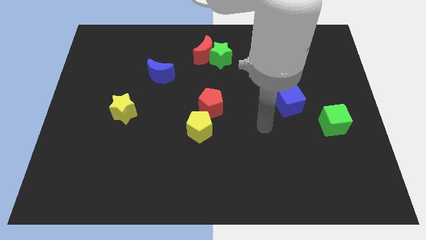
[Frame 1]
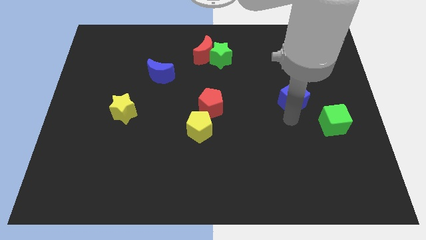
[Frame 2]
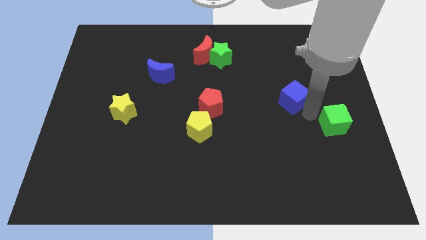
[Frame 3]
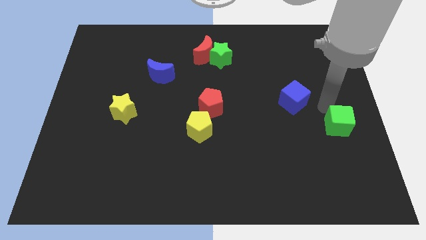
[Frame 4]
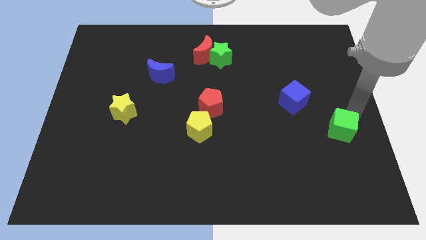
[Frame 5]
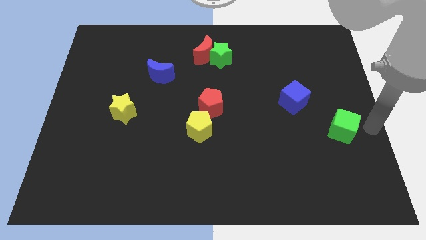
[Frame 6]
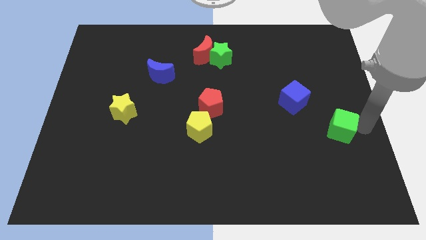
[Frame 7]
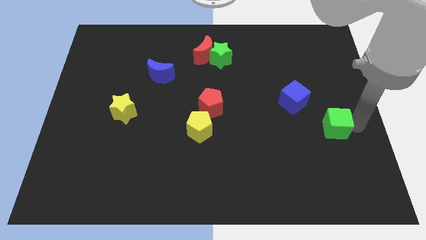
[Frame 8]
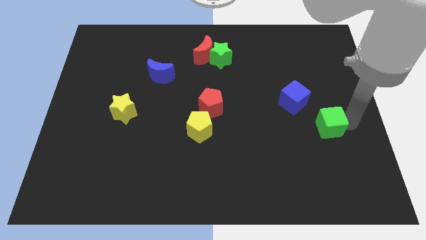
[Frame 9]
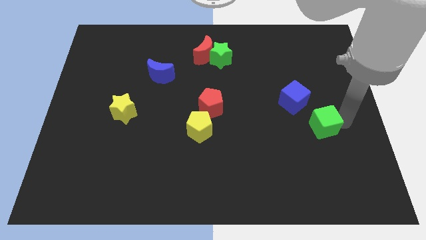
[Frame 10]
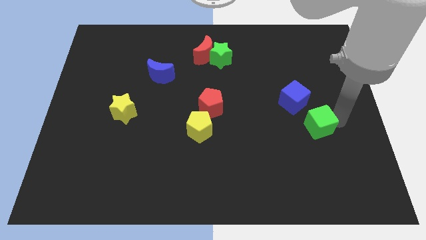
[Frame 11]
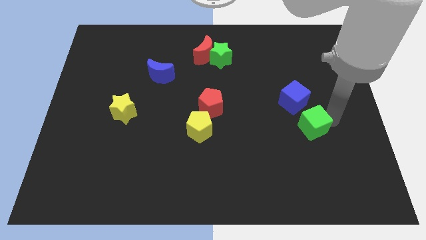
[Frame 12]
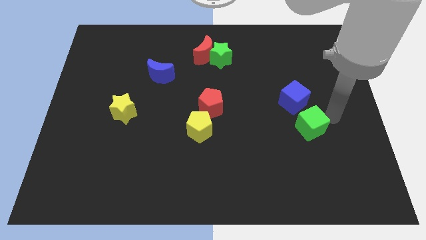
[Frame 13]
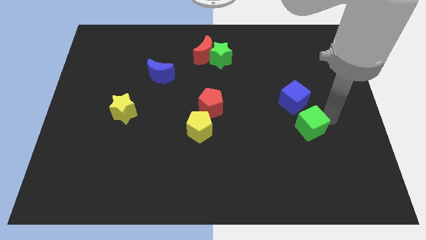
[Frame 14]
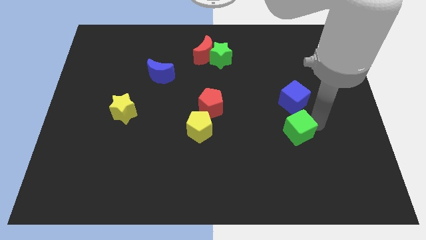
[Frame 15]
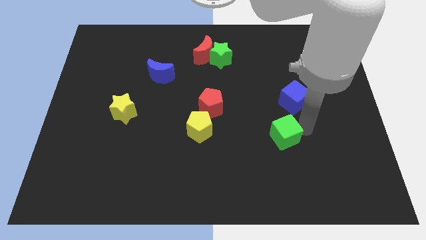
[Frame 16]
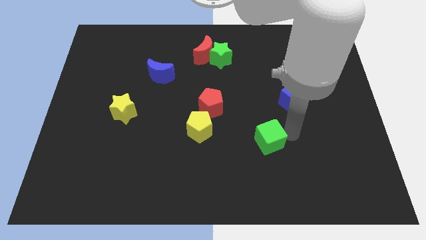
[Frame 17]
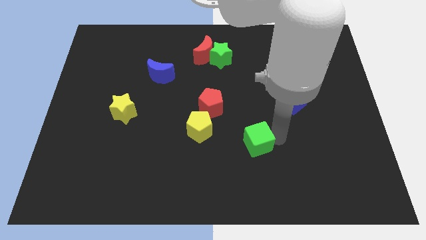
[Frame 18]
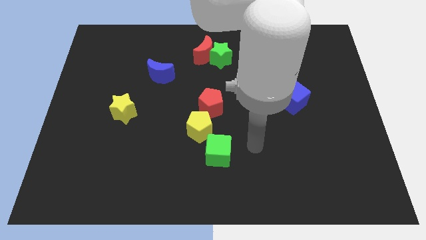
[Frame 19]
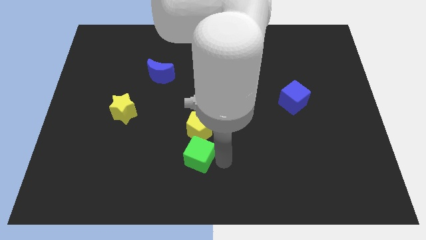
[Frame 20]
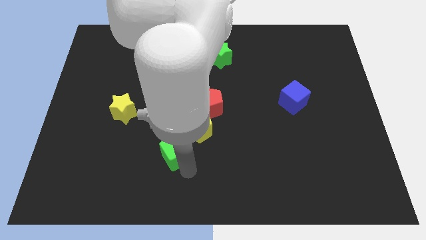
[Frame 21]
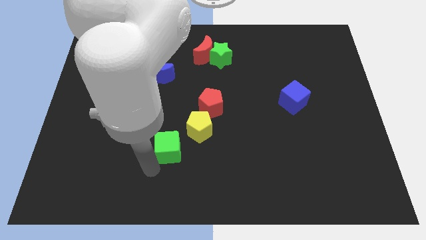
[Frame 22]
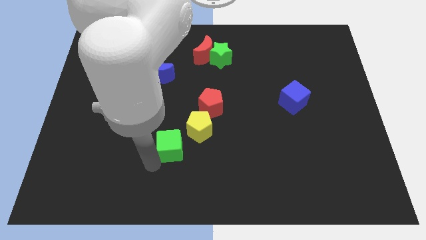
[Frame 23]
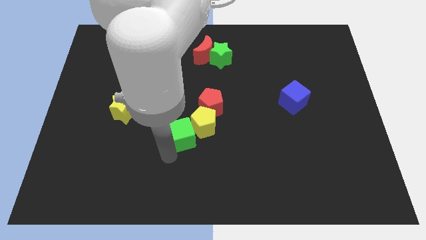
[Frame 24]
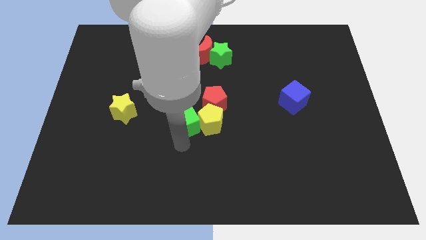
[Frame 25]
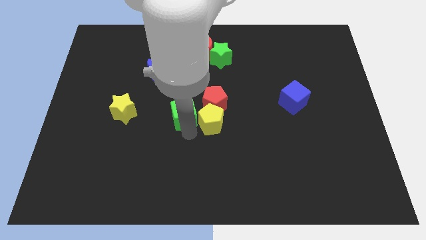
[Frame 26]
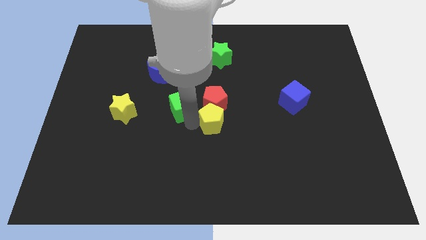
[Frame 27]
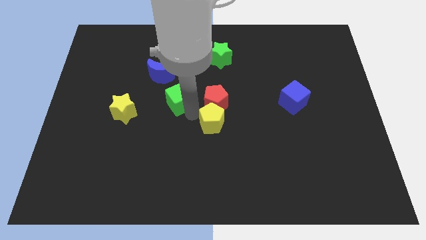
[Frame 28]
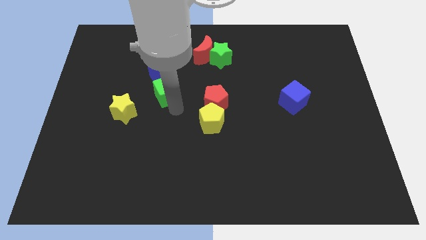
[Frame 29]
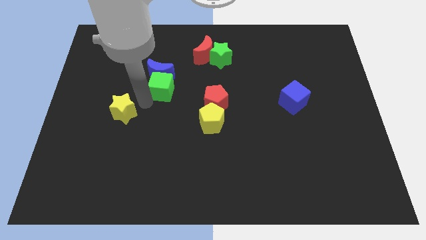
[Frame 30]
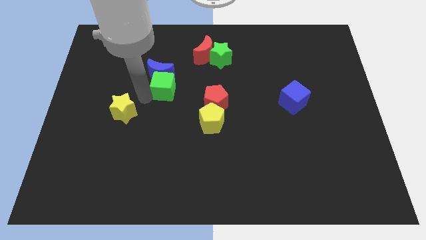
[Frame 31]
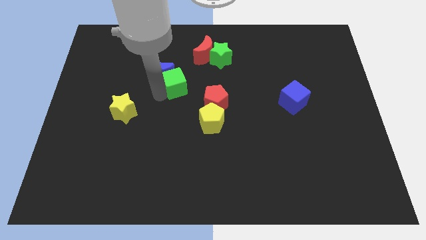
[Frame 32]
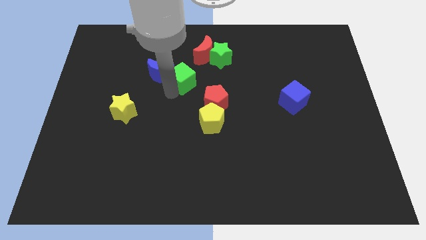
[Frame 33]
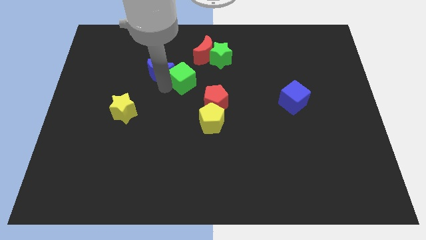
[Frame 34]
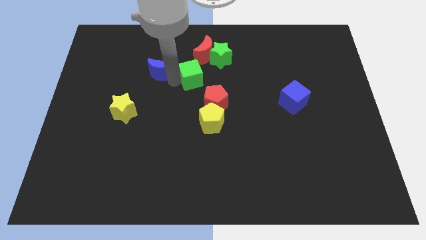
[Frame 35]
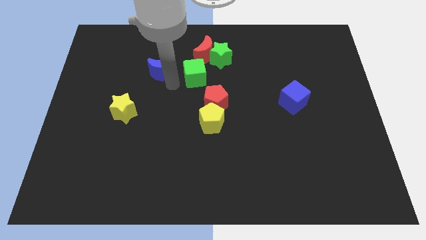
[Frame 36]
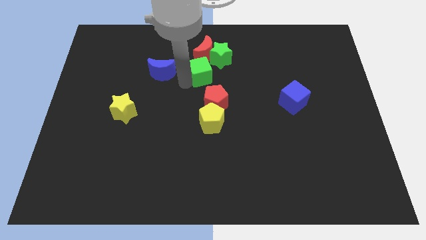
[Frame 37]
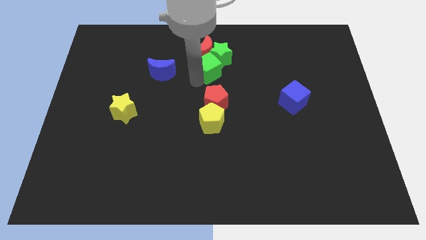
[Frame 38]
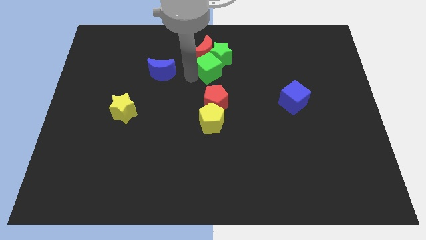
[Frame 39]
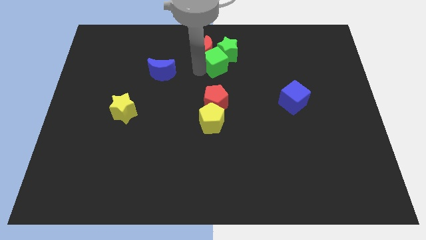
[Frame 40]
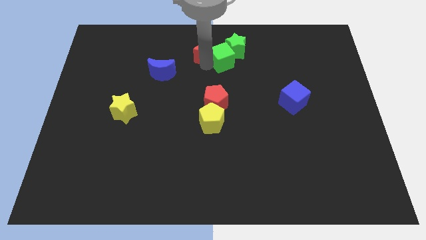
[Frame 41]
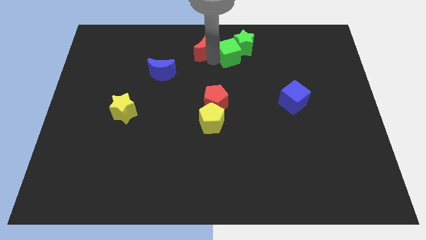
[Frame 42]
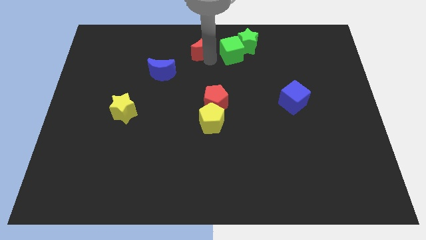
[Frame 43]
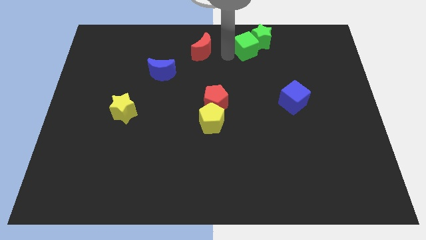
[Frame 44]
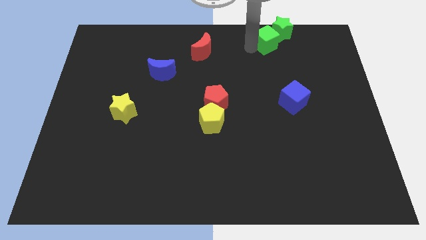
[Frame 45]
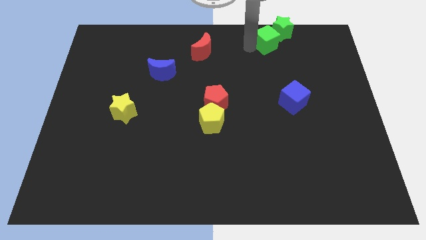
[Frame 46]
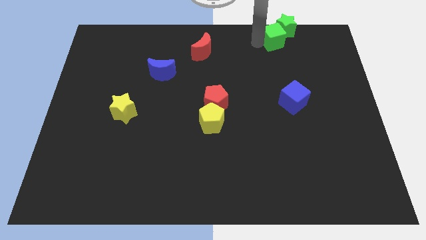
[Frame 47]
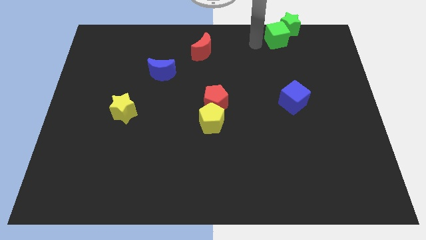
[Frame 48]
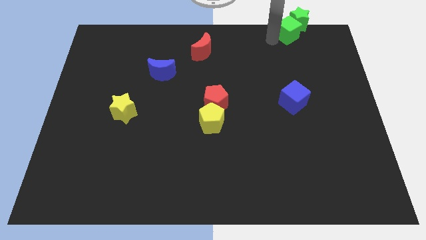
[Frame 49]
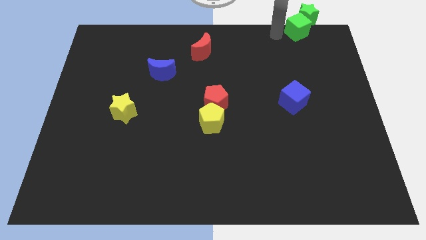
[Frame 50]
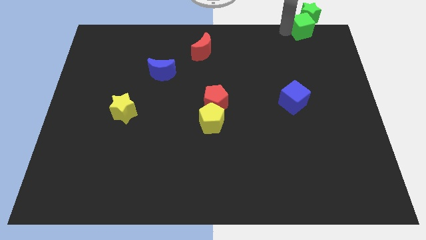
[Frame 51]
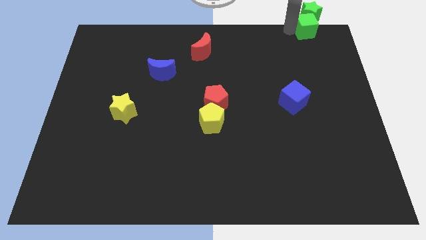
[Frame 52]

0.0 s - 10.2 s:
move the green cube to the upper right corner
